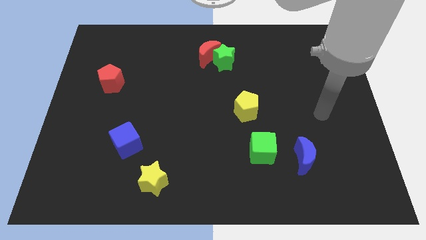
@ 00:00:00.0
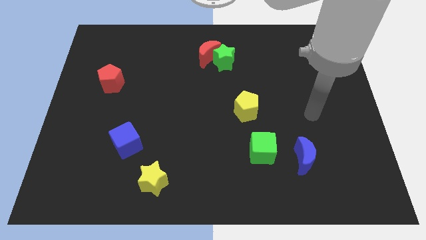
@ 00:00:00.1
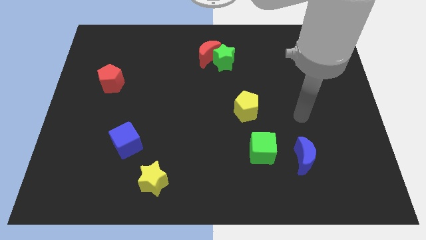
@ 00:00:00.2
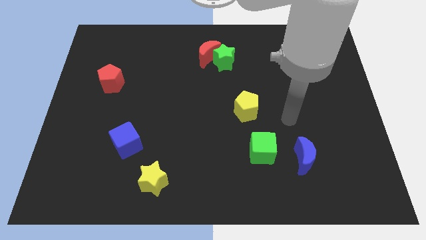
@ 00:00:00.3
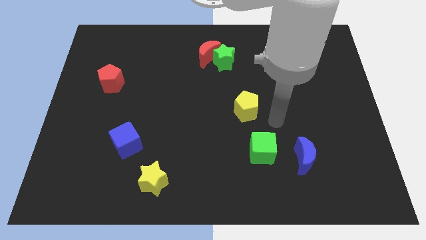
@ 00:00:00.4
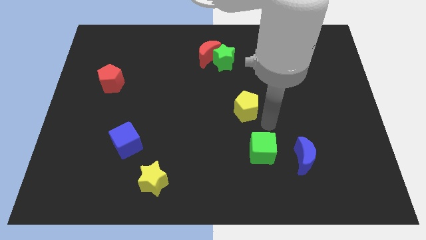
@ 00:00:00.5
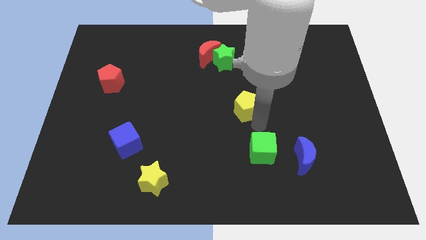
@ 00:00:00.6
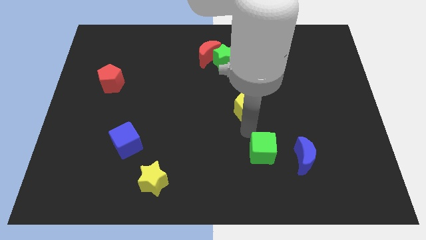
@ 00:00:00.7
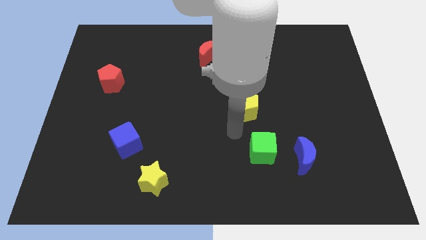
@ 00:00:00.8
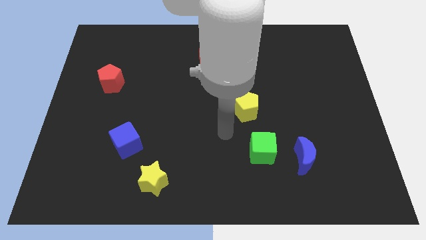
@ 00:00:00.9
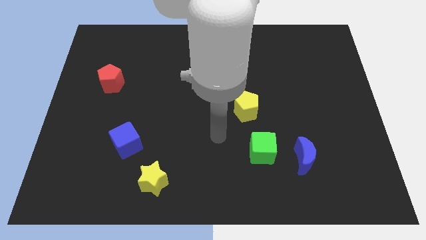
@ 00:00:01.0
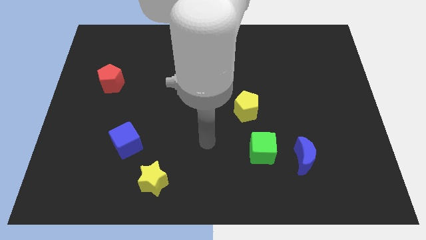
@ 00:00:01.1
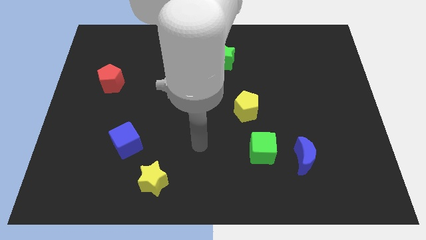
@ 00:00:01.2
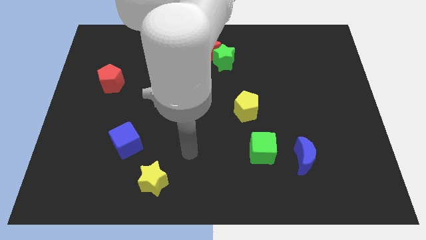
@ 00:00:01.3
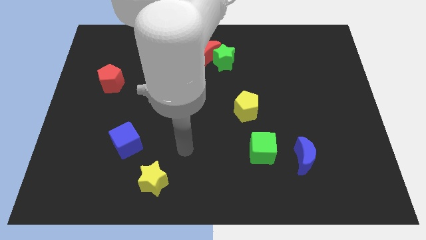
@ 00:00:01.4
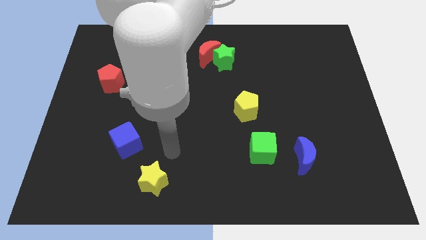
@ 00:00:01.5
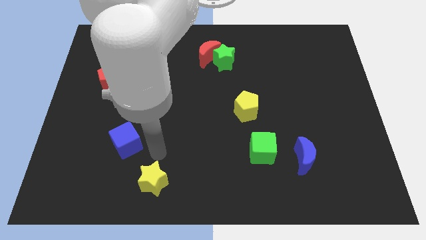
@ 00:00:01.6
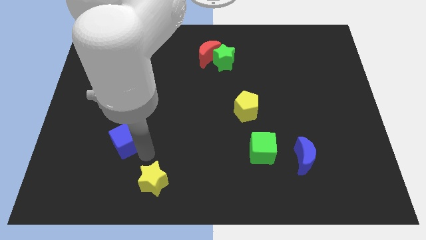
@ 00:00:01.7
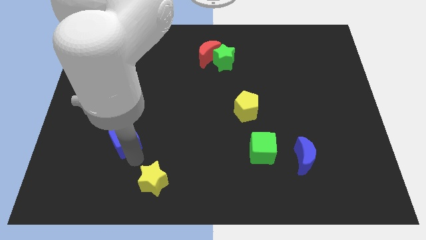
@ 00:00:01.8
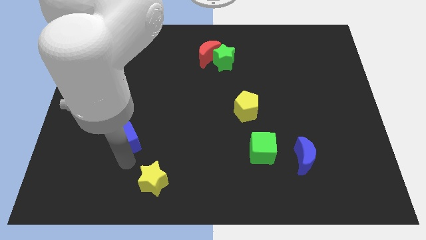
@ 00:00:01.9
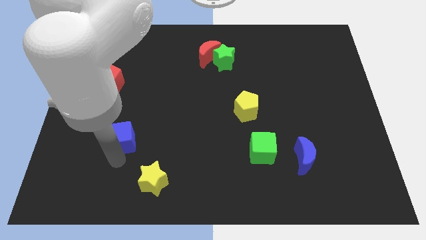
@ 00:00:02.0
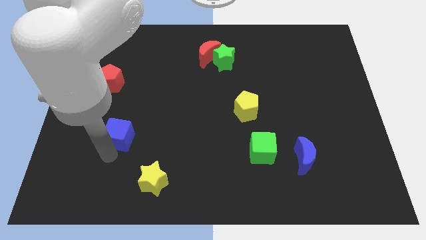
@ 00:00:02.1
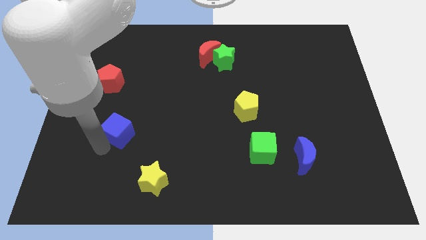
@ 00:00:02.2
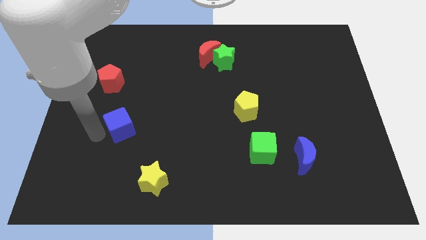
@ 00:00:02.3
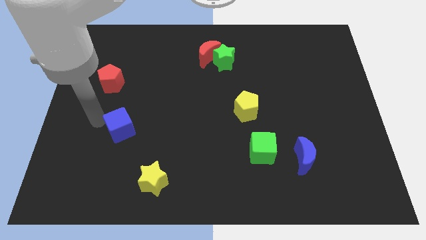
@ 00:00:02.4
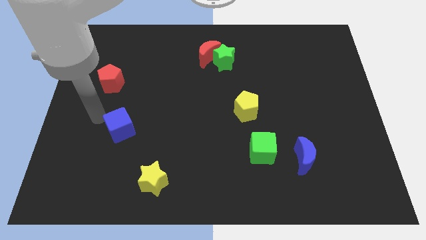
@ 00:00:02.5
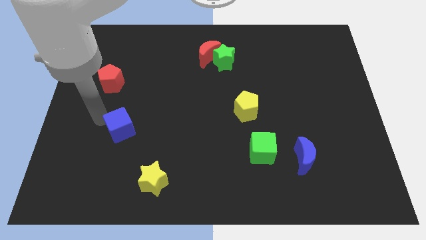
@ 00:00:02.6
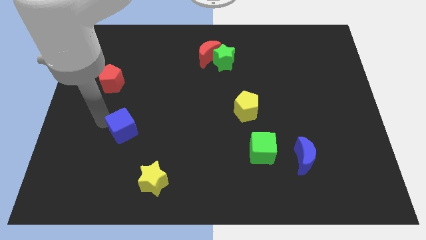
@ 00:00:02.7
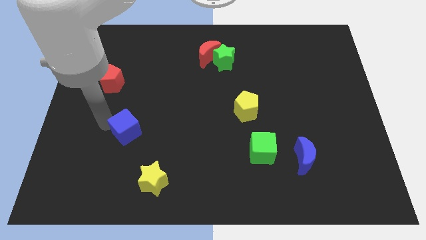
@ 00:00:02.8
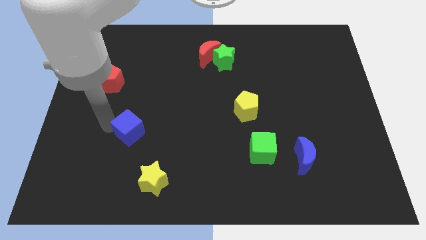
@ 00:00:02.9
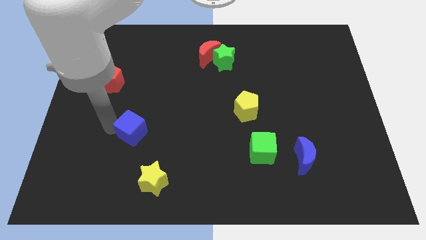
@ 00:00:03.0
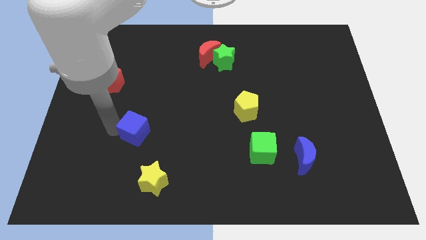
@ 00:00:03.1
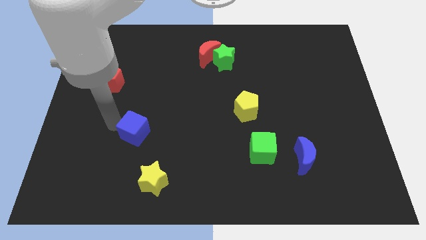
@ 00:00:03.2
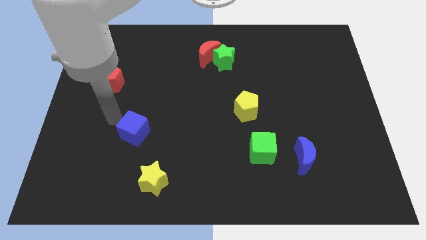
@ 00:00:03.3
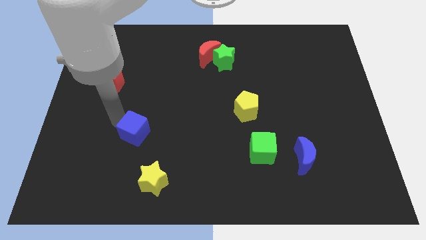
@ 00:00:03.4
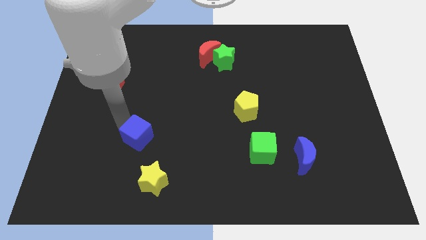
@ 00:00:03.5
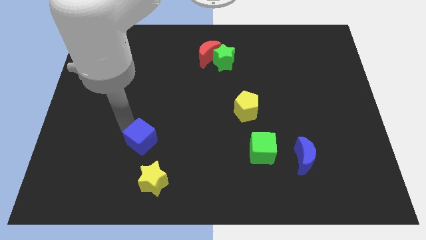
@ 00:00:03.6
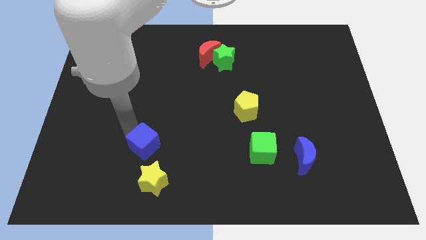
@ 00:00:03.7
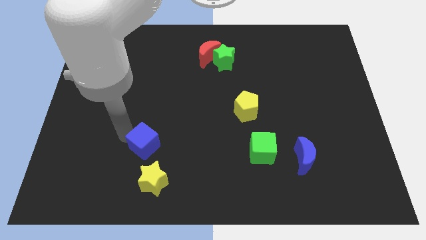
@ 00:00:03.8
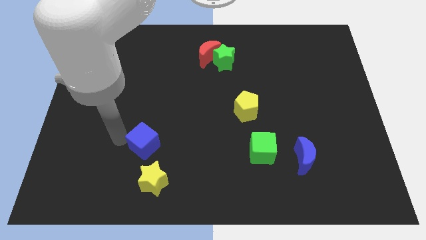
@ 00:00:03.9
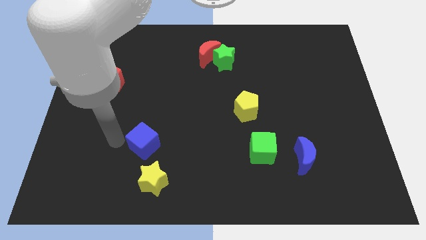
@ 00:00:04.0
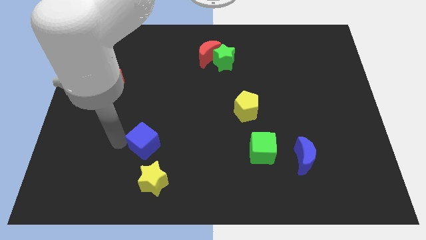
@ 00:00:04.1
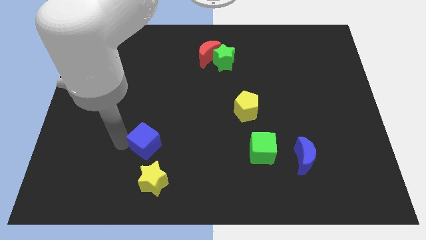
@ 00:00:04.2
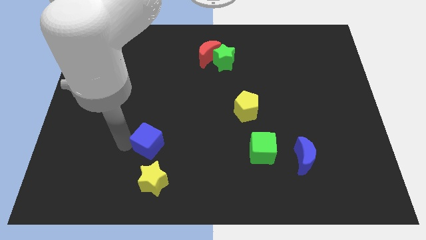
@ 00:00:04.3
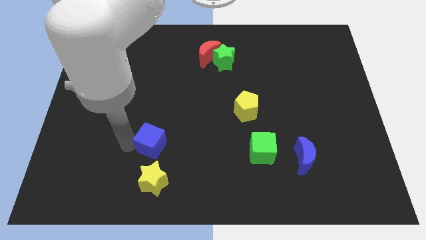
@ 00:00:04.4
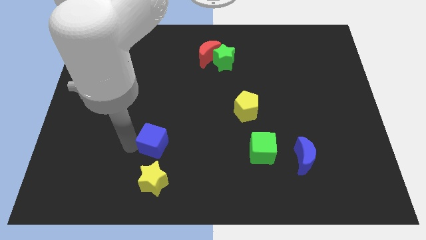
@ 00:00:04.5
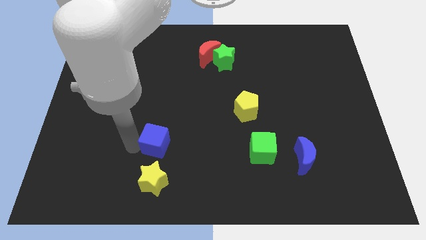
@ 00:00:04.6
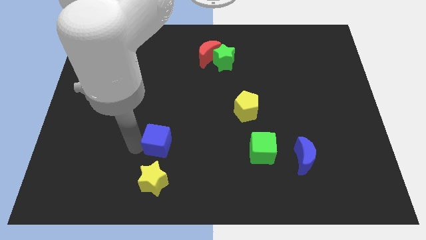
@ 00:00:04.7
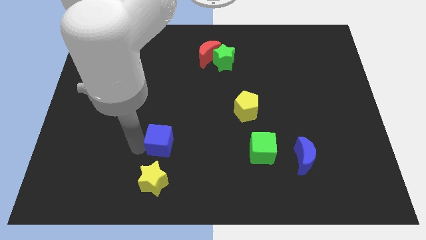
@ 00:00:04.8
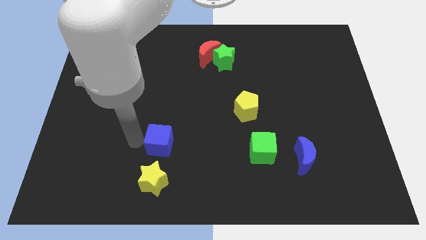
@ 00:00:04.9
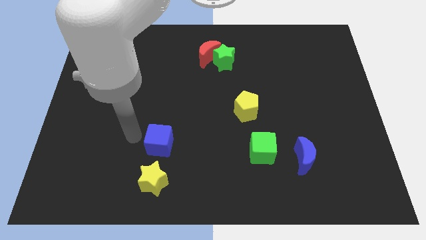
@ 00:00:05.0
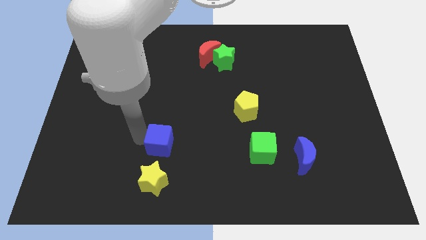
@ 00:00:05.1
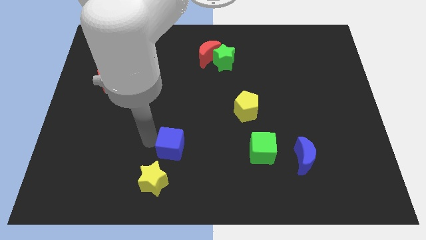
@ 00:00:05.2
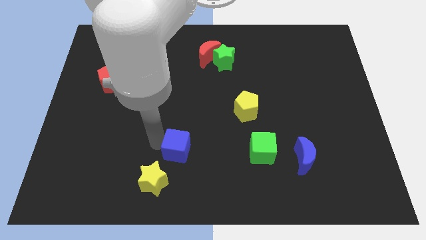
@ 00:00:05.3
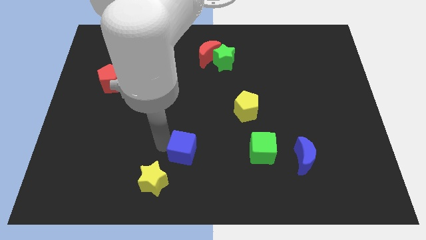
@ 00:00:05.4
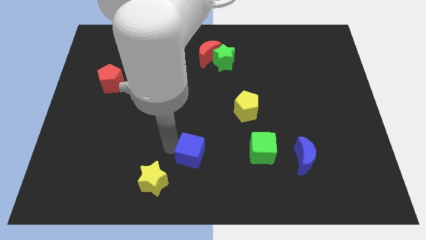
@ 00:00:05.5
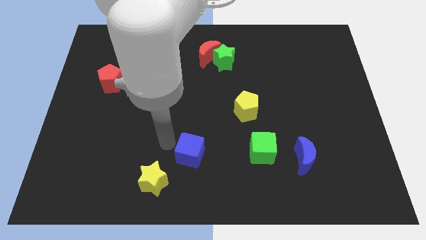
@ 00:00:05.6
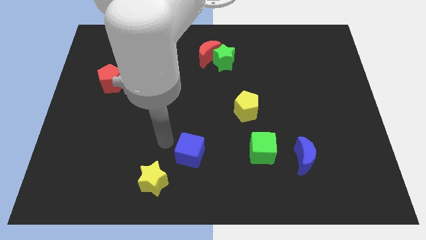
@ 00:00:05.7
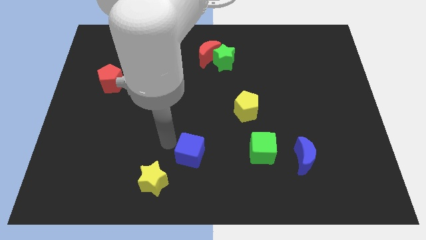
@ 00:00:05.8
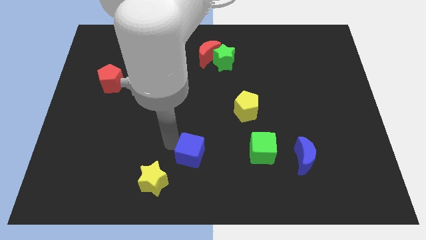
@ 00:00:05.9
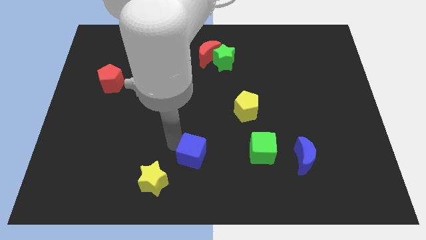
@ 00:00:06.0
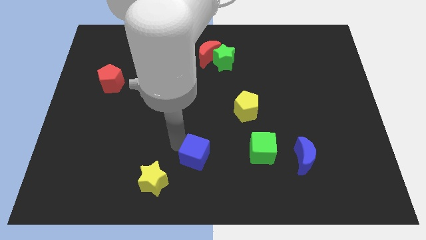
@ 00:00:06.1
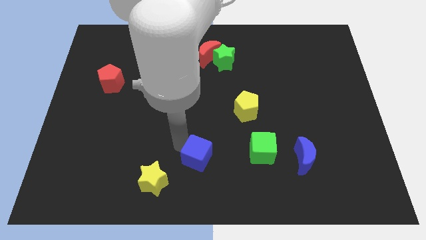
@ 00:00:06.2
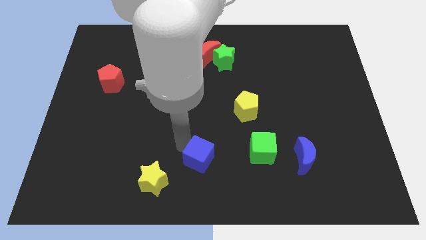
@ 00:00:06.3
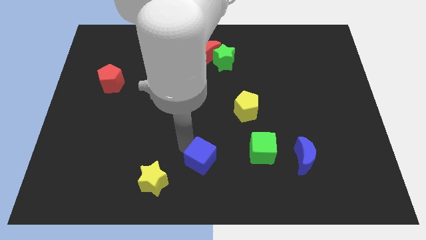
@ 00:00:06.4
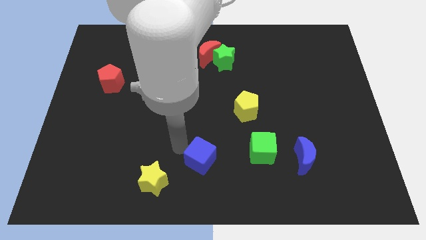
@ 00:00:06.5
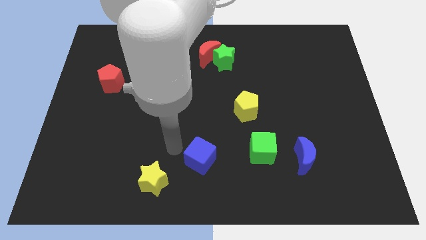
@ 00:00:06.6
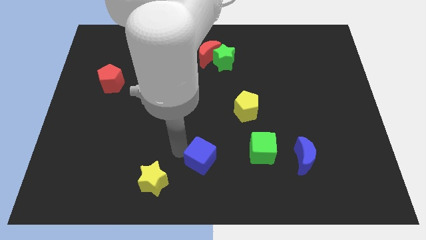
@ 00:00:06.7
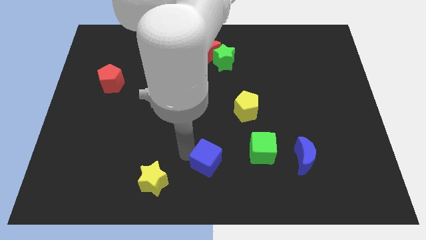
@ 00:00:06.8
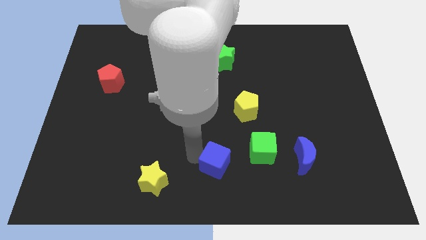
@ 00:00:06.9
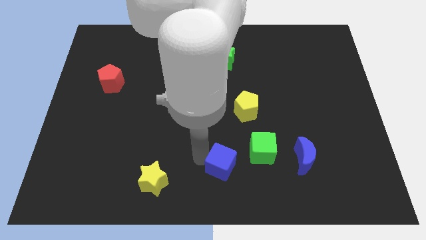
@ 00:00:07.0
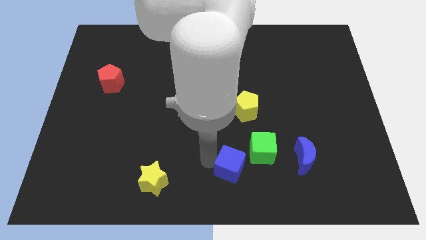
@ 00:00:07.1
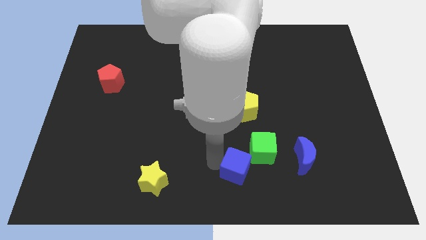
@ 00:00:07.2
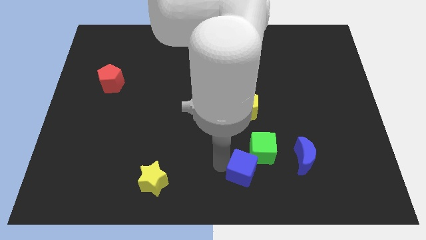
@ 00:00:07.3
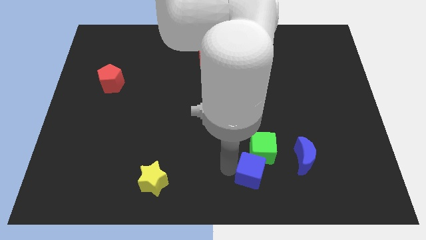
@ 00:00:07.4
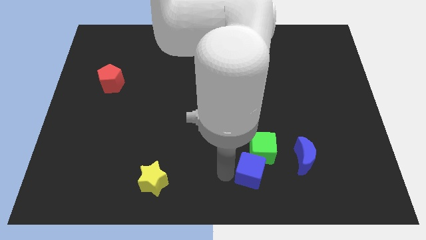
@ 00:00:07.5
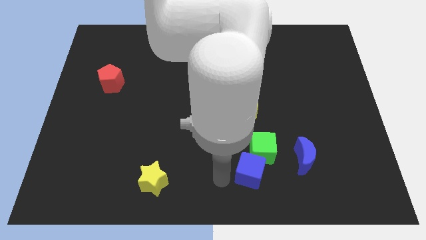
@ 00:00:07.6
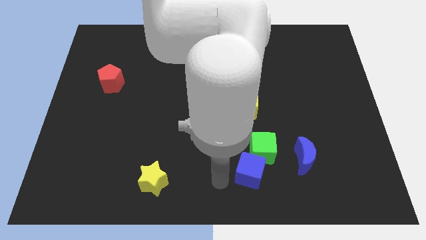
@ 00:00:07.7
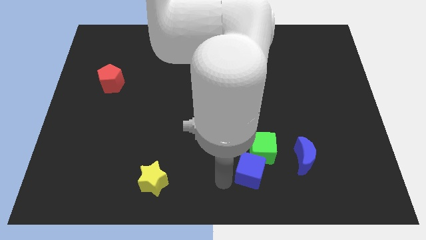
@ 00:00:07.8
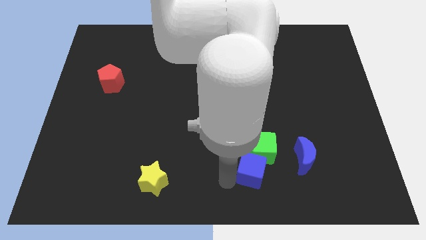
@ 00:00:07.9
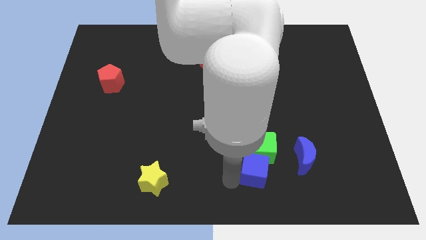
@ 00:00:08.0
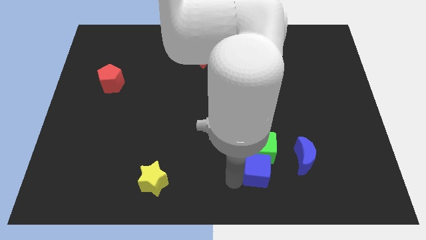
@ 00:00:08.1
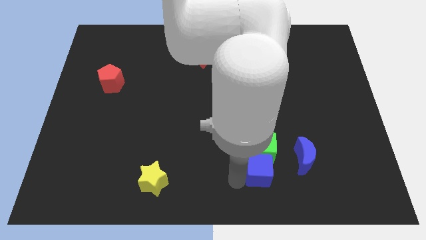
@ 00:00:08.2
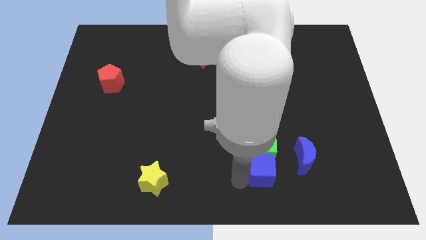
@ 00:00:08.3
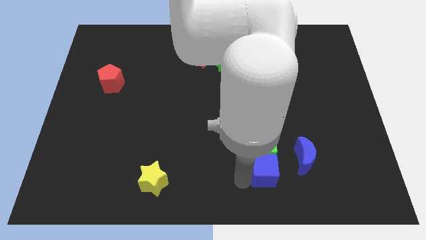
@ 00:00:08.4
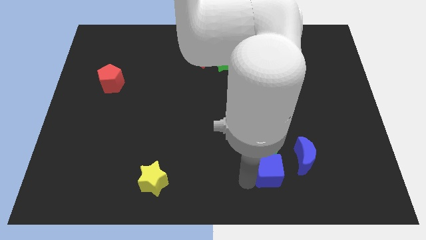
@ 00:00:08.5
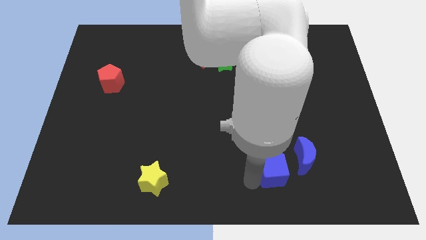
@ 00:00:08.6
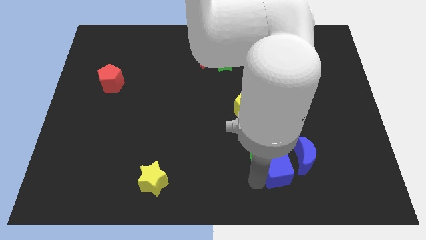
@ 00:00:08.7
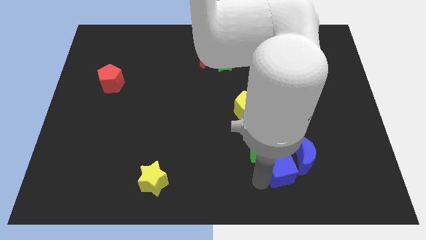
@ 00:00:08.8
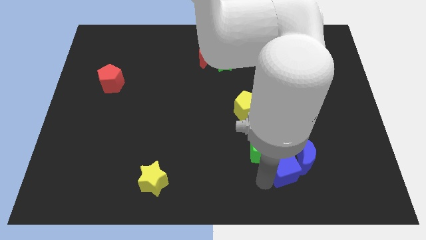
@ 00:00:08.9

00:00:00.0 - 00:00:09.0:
move the blue cube next to the blue moon
